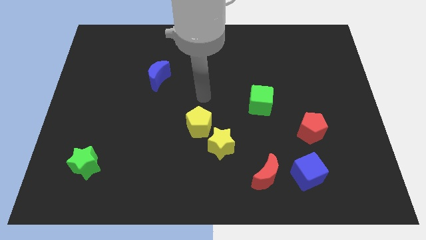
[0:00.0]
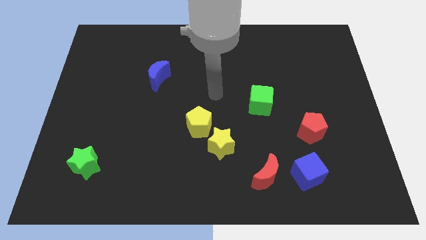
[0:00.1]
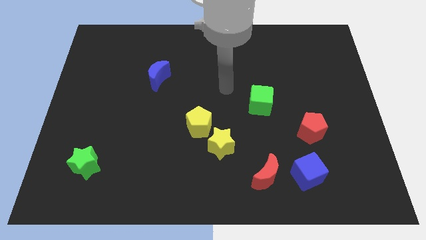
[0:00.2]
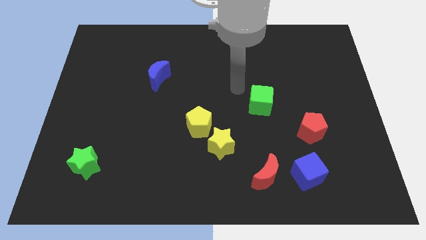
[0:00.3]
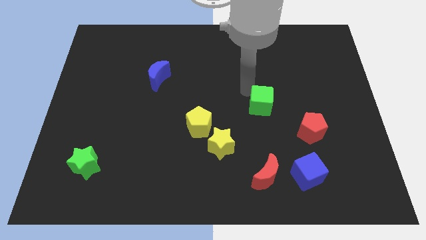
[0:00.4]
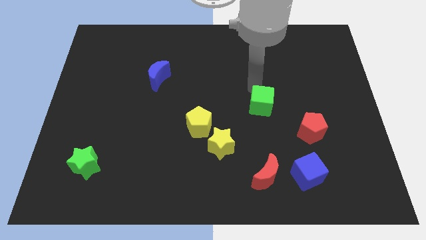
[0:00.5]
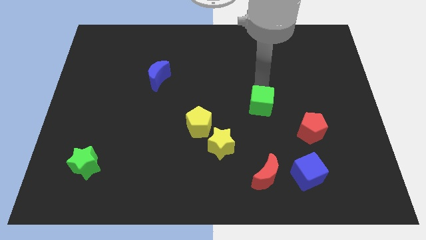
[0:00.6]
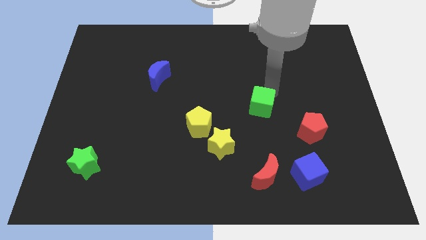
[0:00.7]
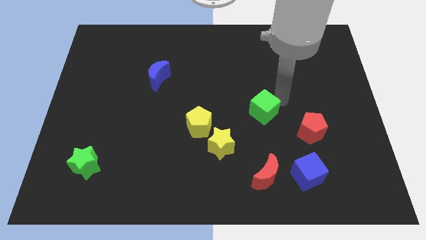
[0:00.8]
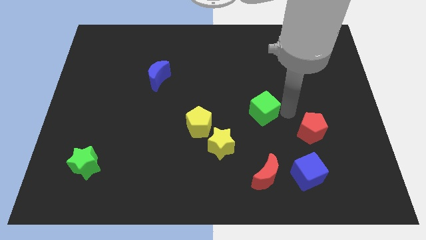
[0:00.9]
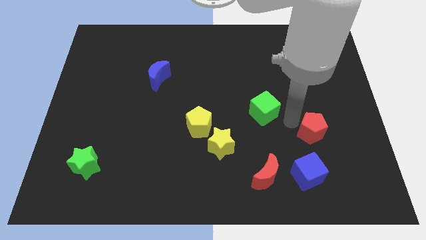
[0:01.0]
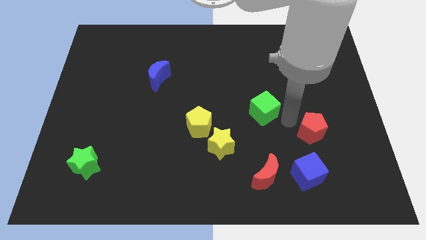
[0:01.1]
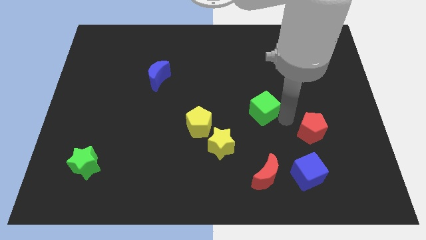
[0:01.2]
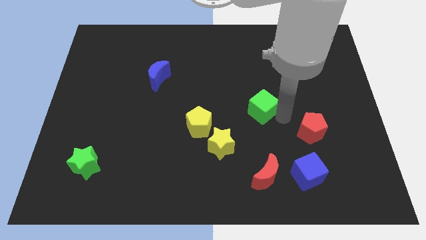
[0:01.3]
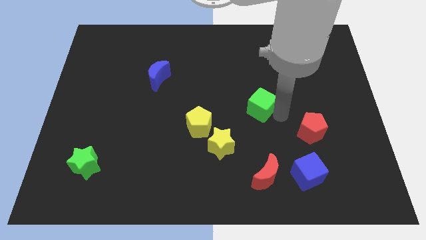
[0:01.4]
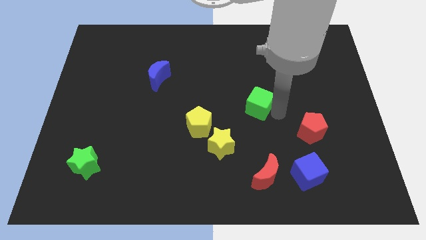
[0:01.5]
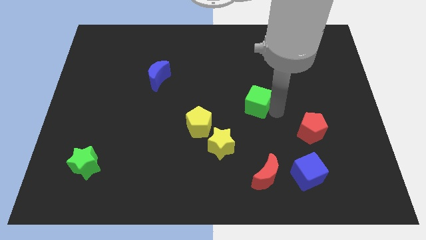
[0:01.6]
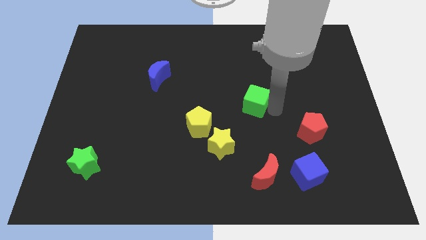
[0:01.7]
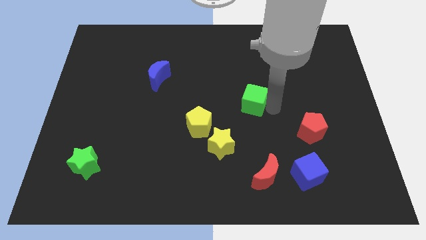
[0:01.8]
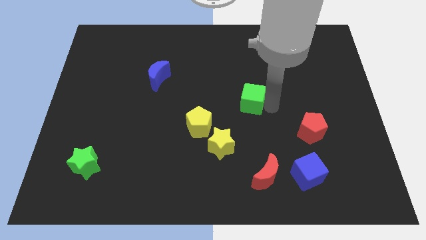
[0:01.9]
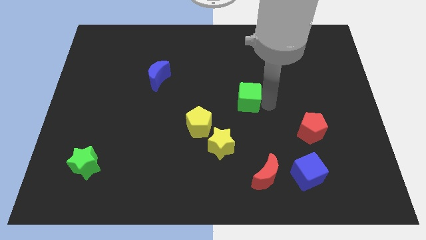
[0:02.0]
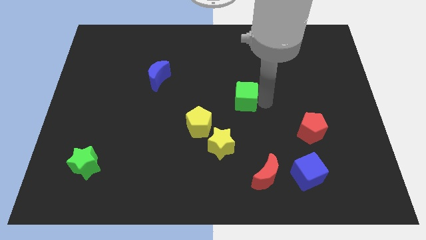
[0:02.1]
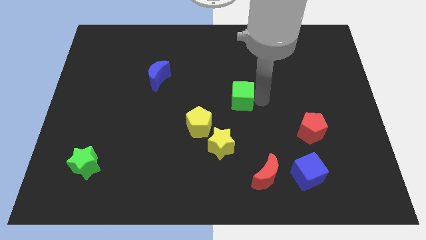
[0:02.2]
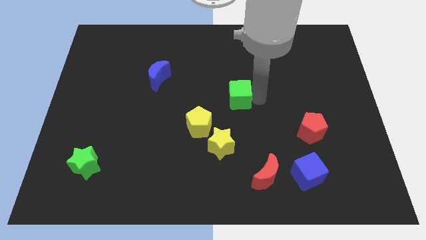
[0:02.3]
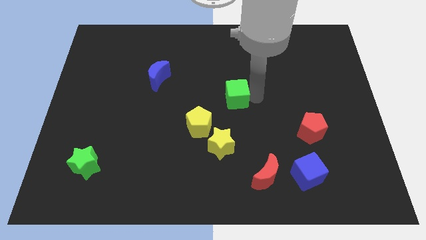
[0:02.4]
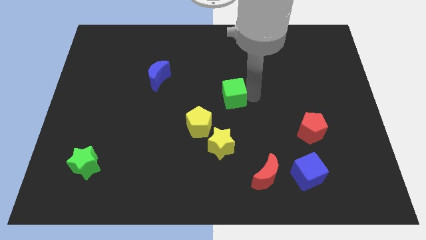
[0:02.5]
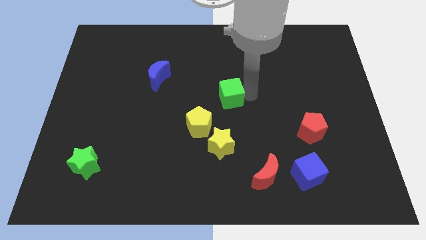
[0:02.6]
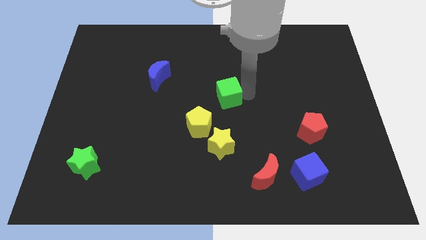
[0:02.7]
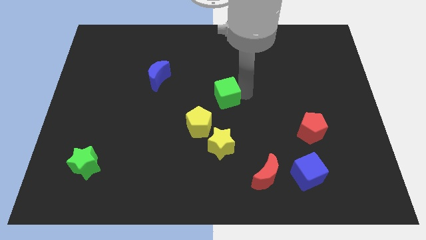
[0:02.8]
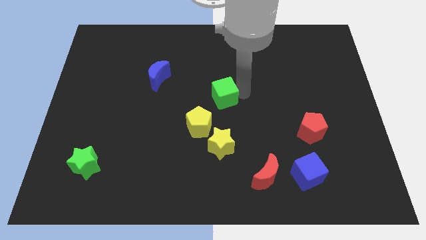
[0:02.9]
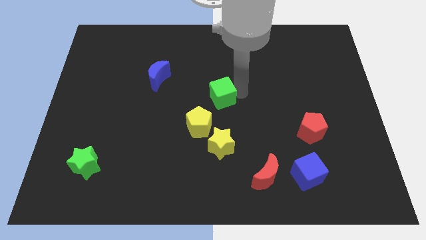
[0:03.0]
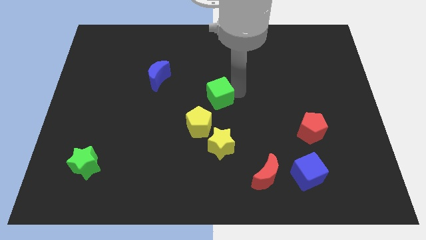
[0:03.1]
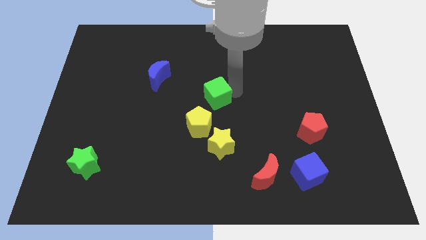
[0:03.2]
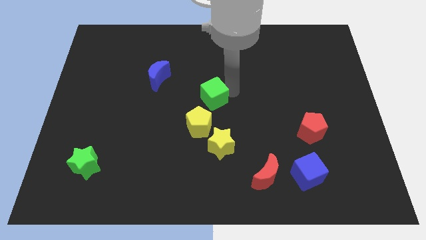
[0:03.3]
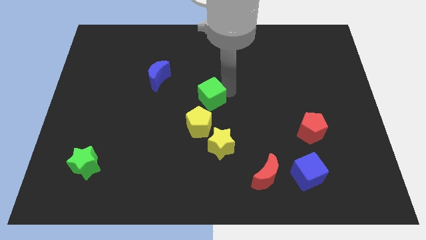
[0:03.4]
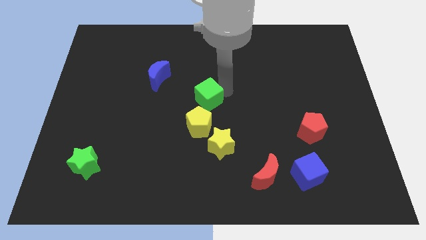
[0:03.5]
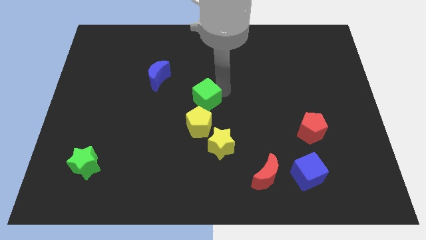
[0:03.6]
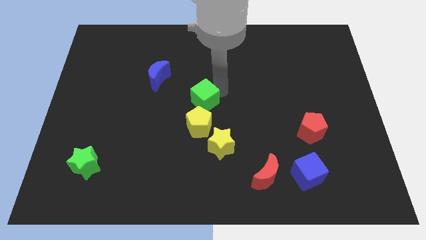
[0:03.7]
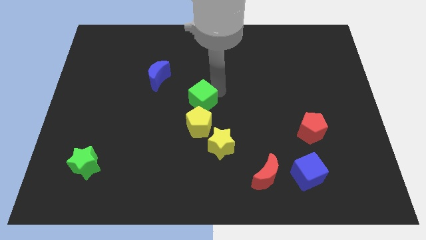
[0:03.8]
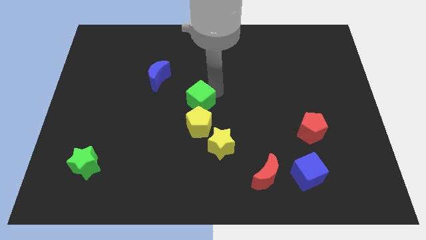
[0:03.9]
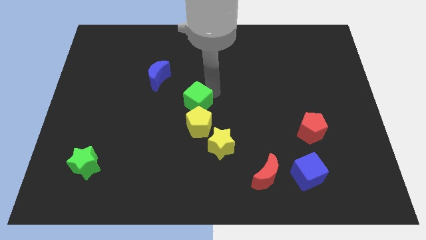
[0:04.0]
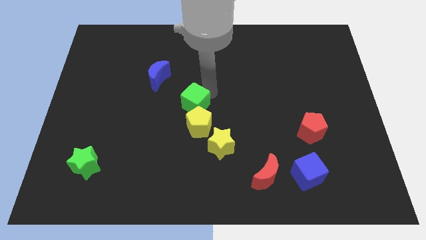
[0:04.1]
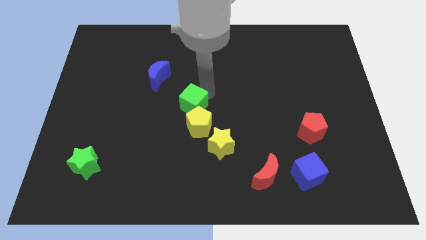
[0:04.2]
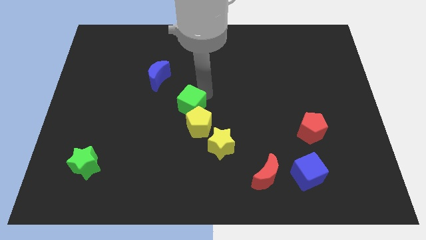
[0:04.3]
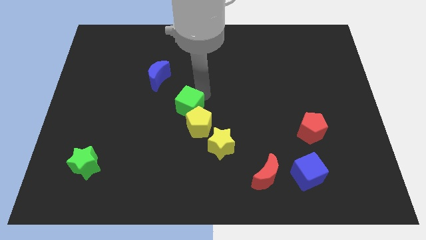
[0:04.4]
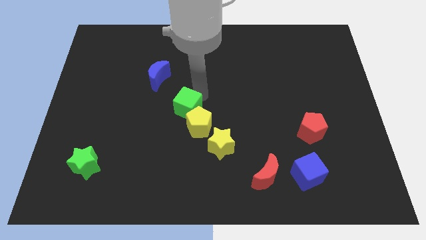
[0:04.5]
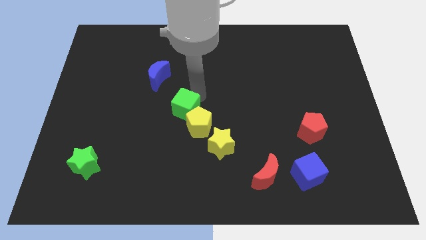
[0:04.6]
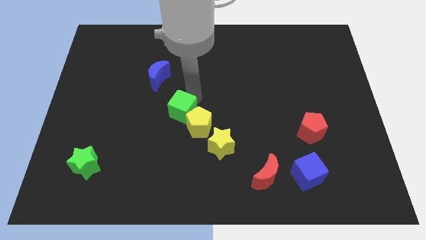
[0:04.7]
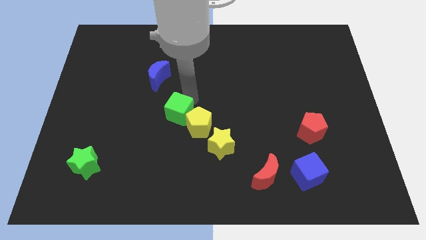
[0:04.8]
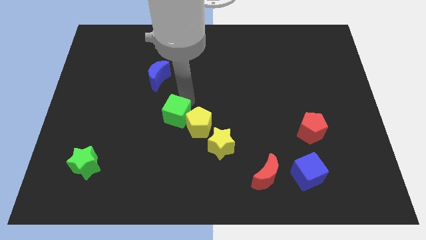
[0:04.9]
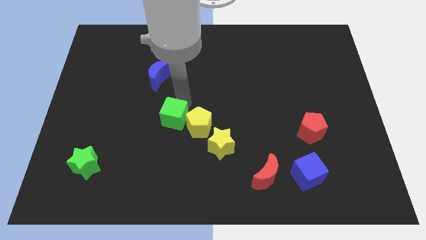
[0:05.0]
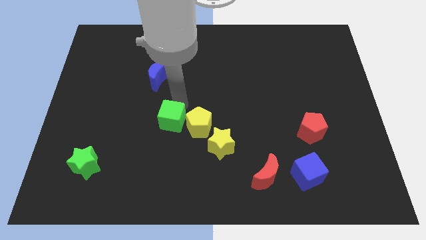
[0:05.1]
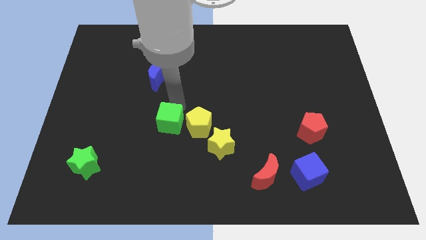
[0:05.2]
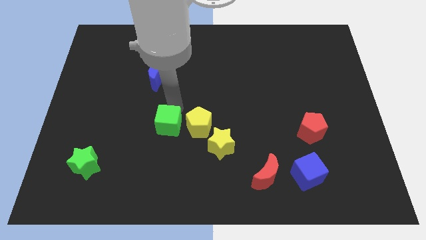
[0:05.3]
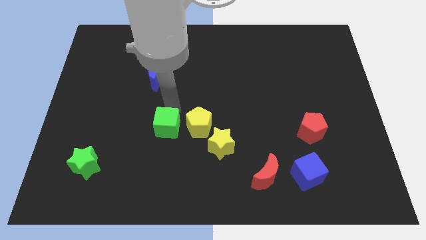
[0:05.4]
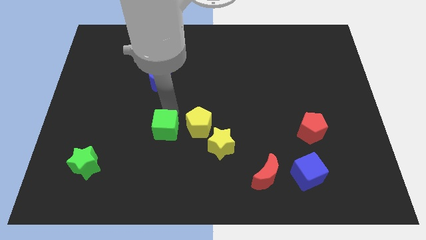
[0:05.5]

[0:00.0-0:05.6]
push the green cube to the left of the yellow star

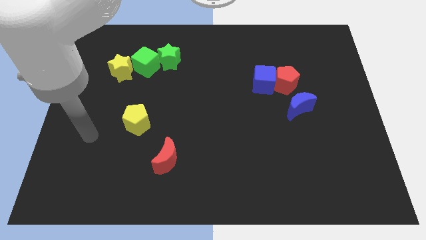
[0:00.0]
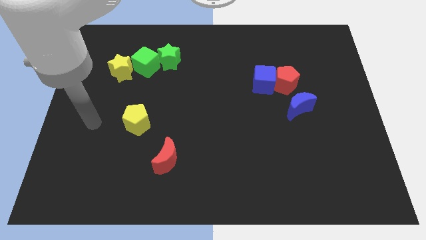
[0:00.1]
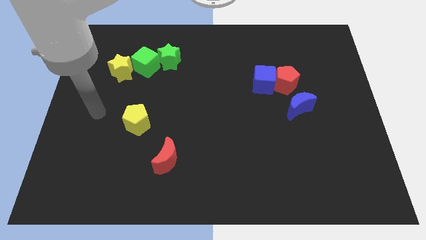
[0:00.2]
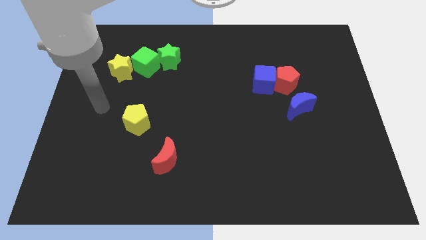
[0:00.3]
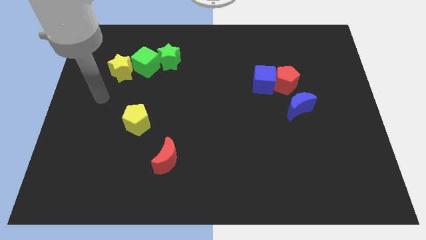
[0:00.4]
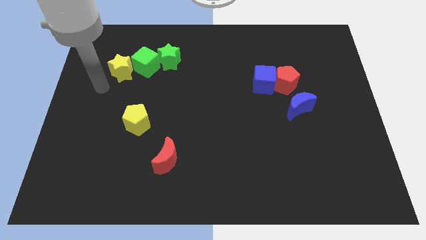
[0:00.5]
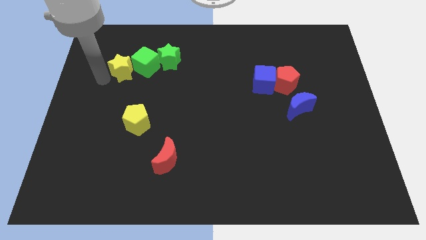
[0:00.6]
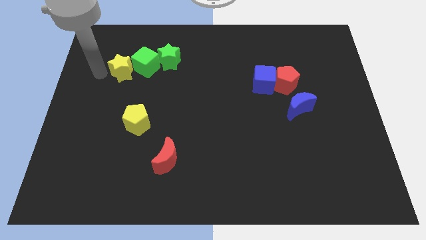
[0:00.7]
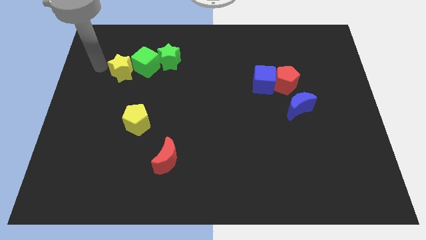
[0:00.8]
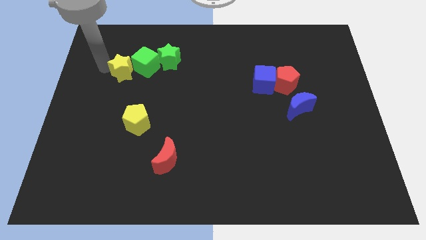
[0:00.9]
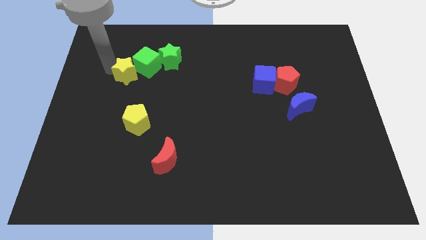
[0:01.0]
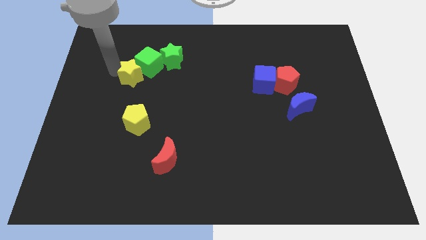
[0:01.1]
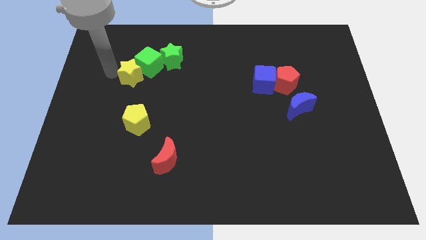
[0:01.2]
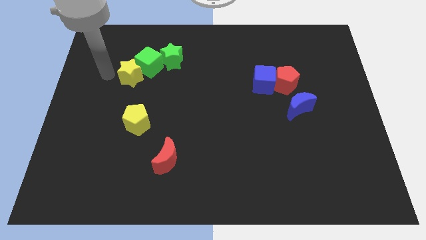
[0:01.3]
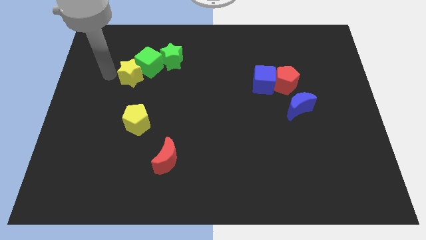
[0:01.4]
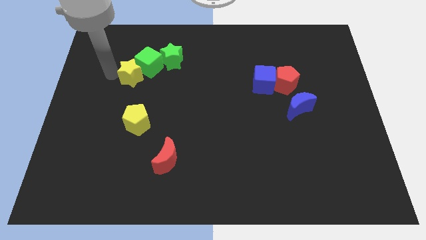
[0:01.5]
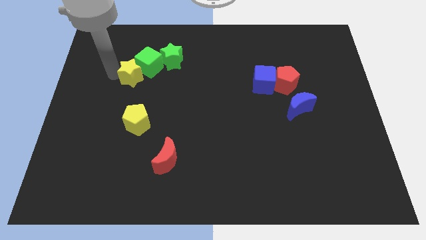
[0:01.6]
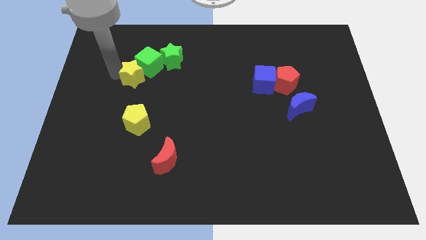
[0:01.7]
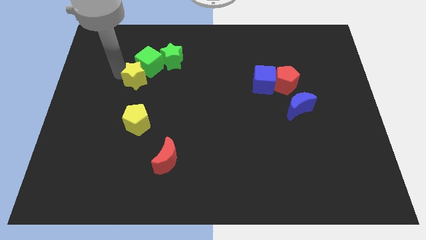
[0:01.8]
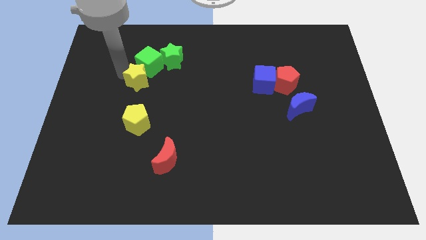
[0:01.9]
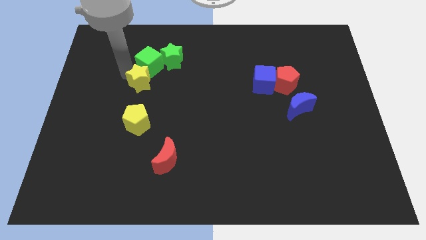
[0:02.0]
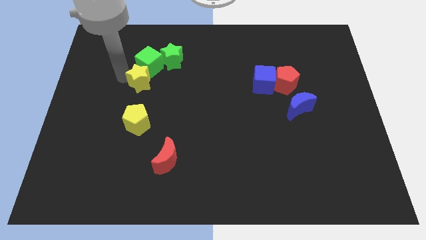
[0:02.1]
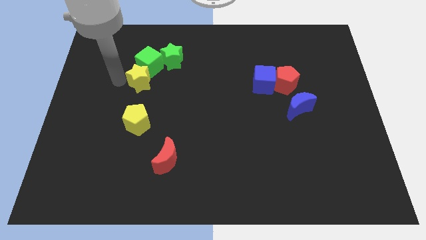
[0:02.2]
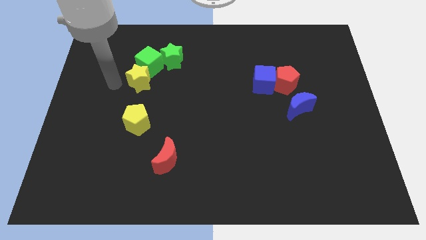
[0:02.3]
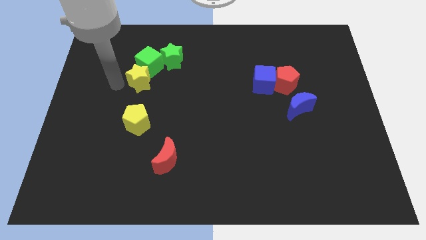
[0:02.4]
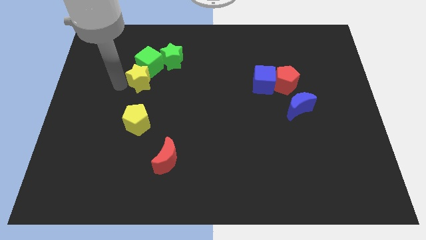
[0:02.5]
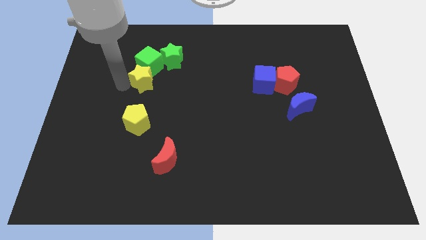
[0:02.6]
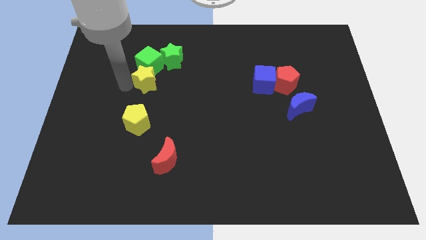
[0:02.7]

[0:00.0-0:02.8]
put the yellow star diagonally down and to the right of the green cube
